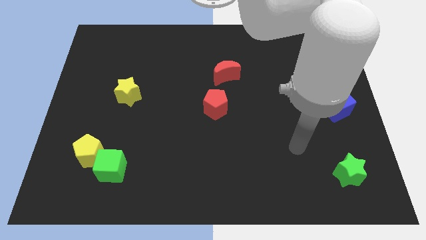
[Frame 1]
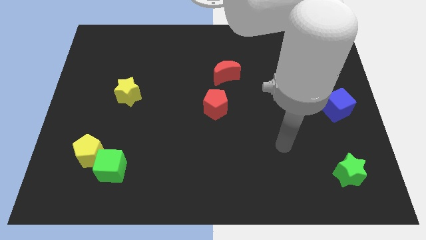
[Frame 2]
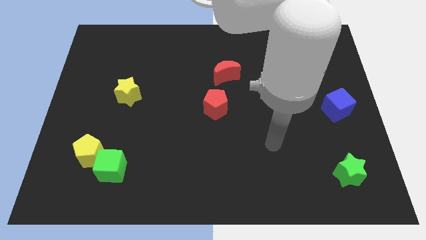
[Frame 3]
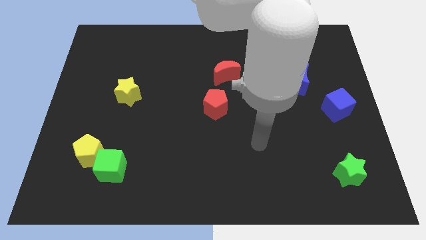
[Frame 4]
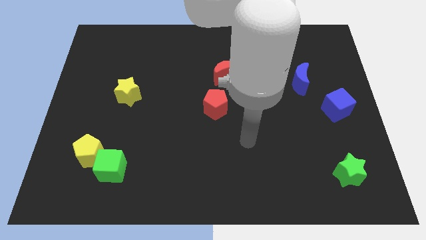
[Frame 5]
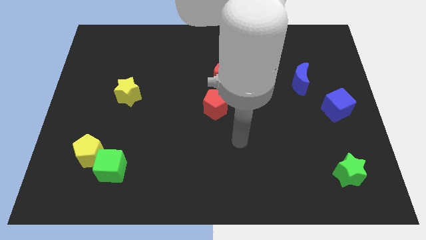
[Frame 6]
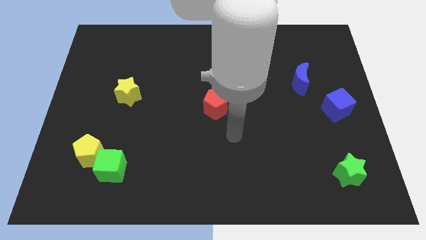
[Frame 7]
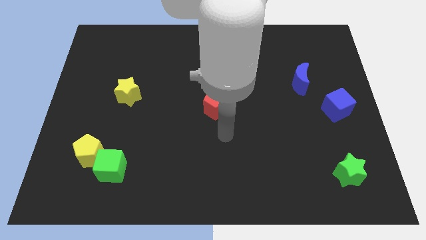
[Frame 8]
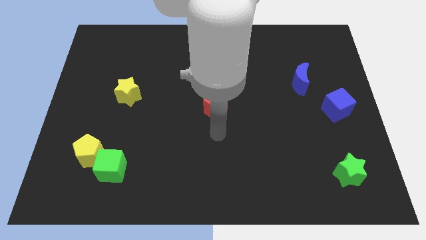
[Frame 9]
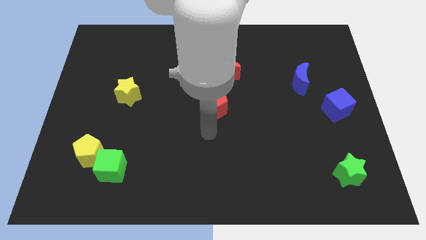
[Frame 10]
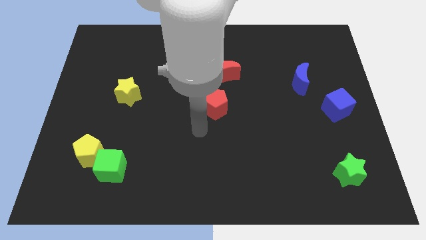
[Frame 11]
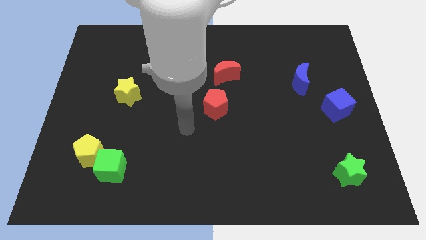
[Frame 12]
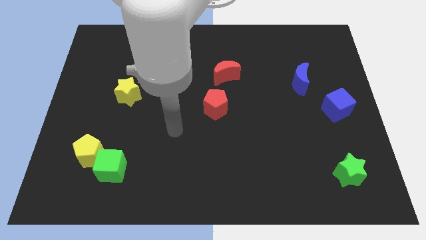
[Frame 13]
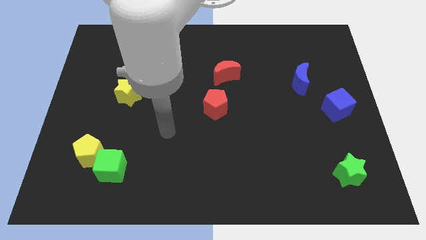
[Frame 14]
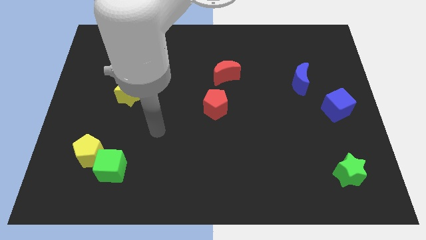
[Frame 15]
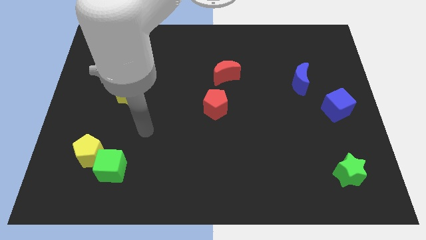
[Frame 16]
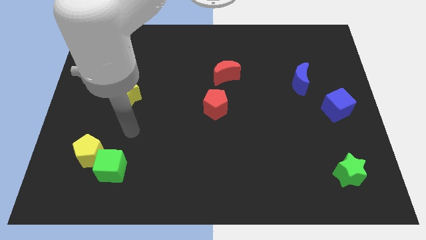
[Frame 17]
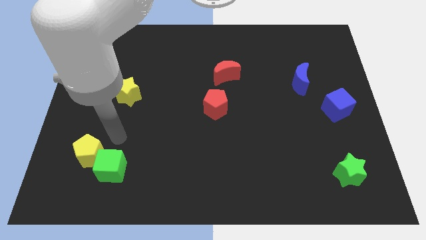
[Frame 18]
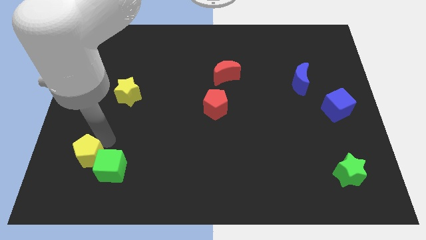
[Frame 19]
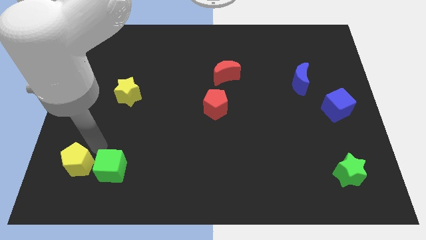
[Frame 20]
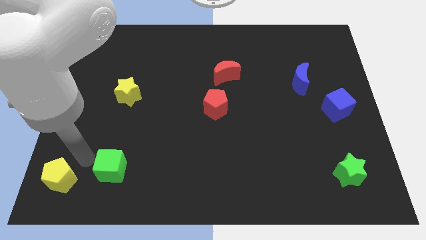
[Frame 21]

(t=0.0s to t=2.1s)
separate the green cube from the yellow pentagon

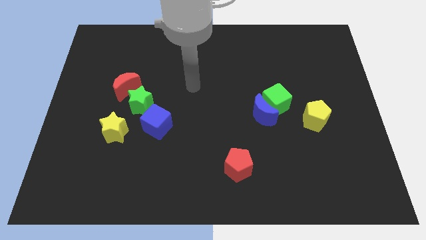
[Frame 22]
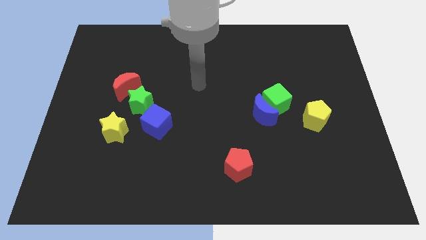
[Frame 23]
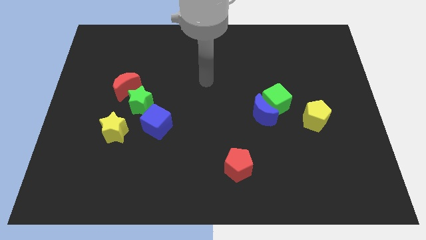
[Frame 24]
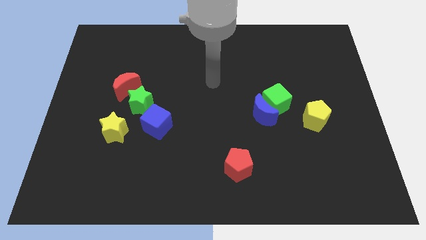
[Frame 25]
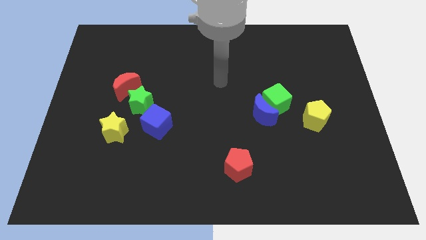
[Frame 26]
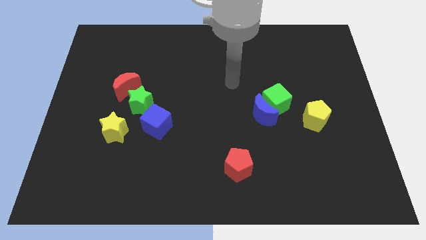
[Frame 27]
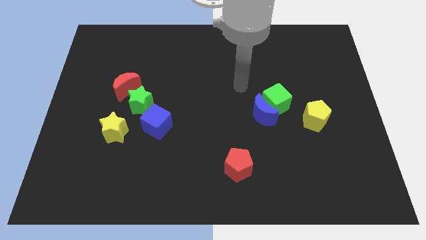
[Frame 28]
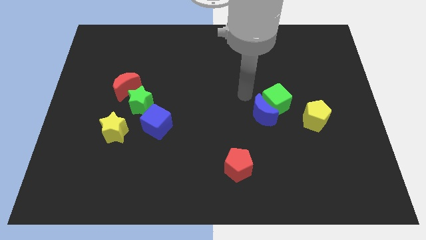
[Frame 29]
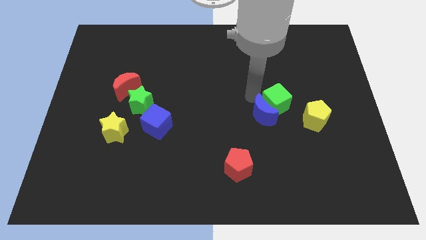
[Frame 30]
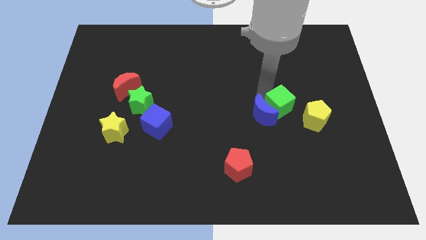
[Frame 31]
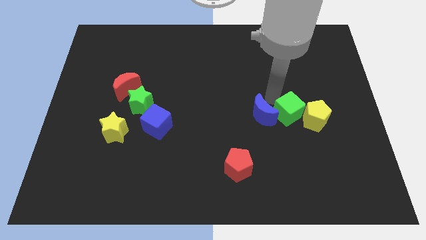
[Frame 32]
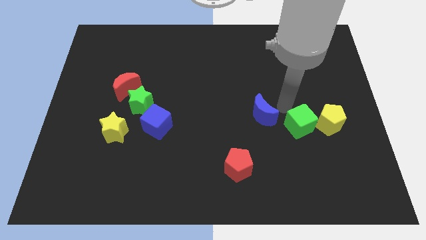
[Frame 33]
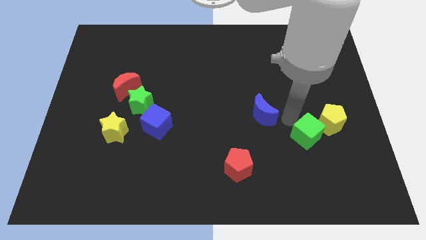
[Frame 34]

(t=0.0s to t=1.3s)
separate the blue moon from the green cube

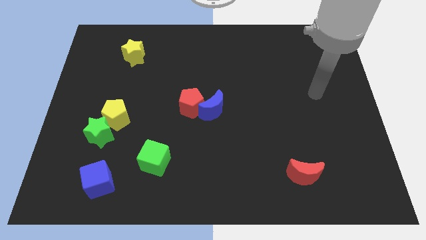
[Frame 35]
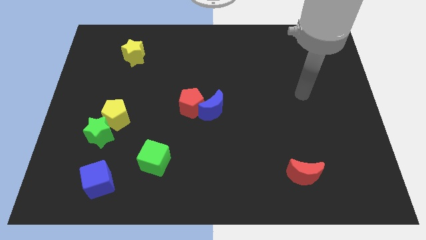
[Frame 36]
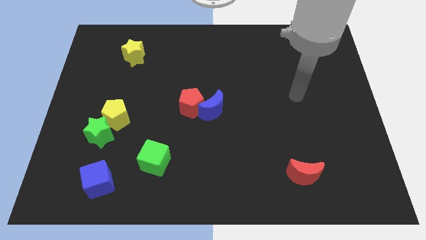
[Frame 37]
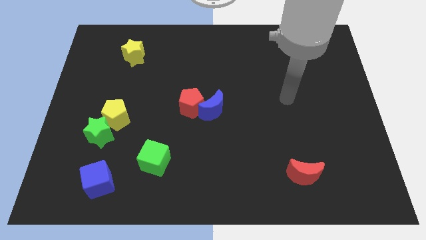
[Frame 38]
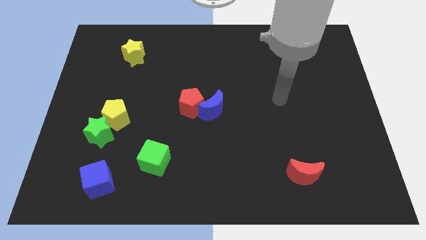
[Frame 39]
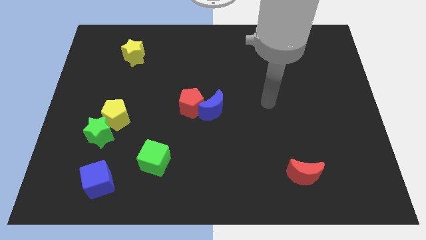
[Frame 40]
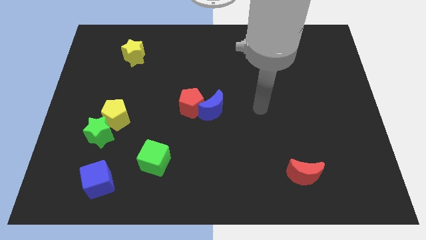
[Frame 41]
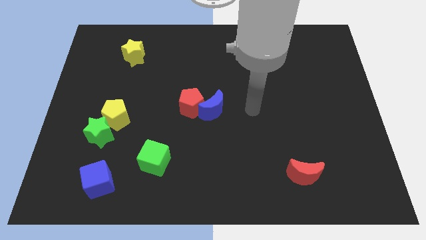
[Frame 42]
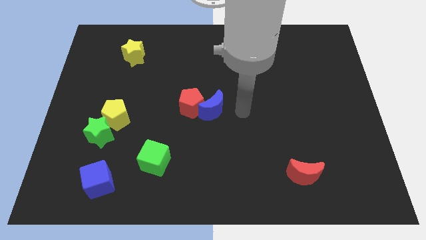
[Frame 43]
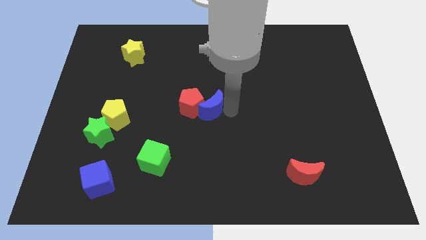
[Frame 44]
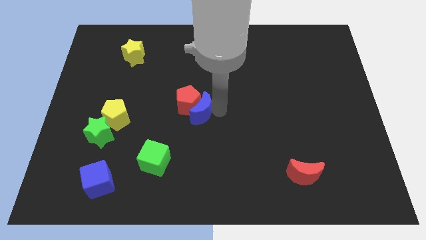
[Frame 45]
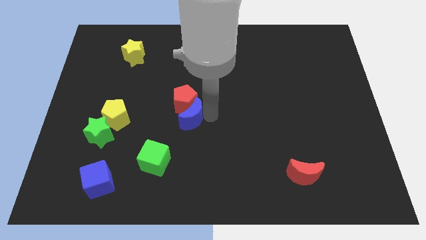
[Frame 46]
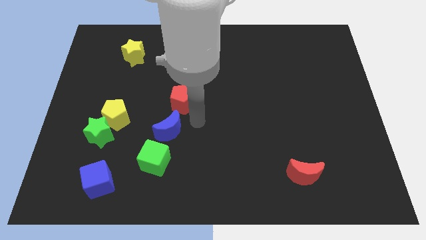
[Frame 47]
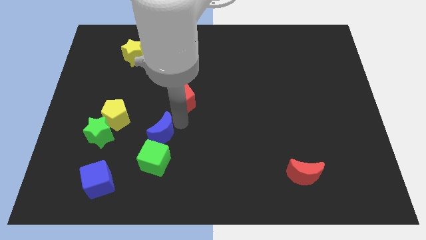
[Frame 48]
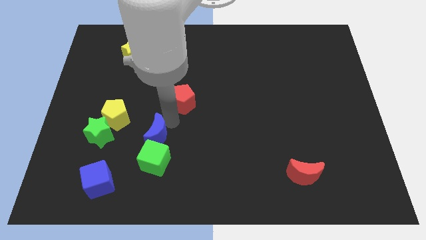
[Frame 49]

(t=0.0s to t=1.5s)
separate the red pentagon from the blue moon

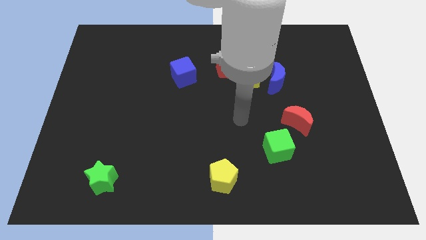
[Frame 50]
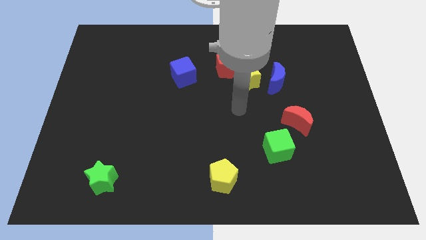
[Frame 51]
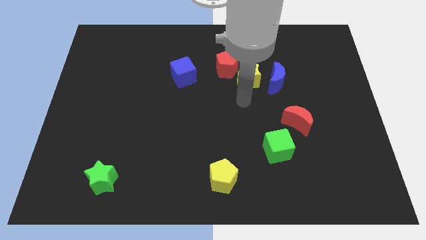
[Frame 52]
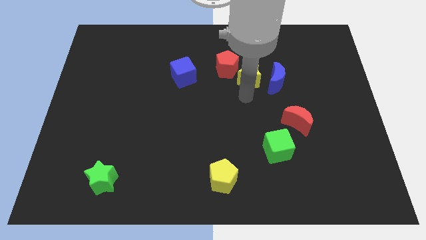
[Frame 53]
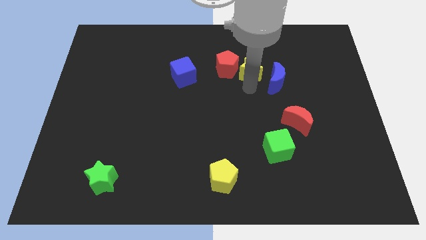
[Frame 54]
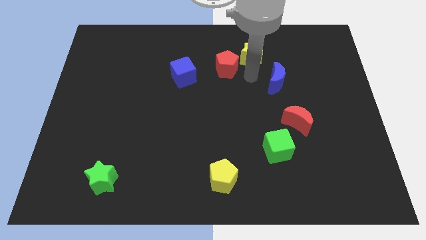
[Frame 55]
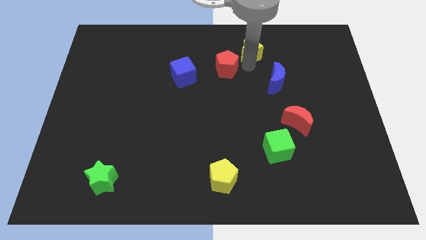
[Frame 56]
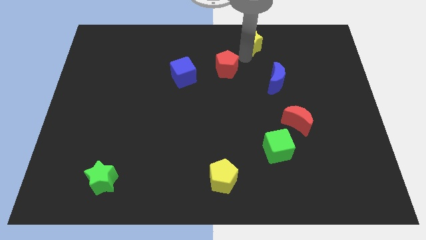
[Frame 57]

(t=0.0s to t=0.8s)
pull the red pentagon apart from the yellow star

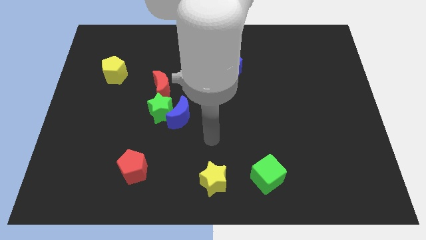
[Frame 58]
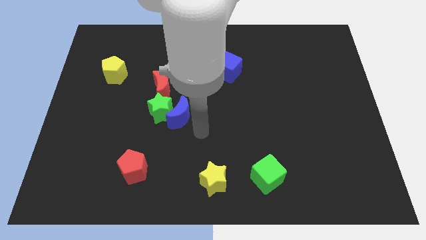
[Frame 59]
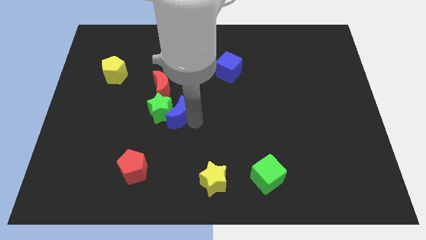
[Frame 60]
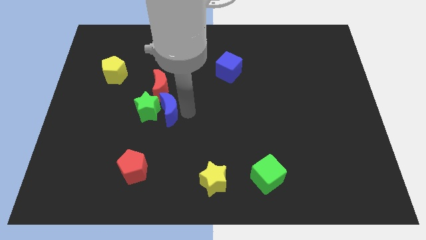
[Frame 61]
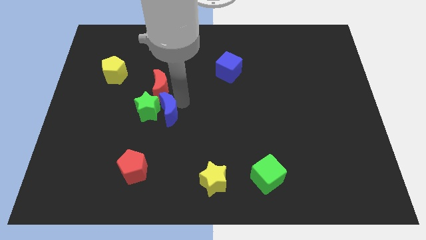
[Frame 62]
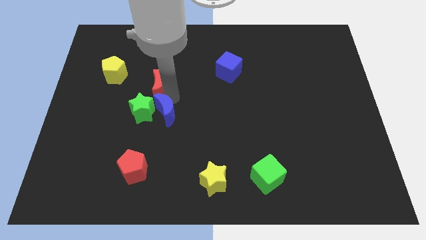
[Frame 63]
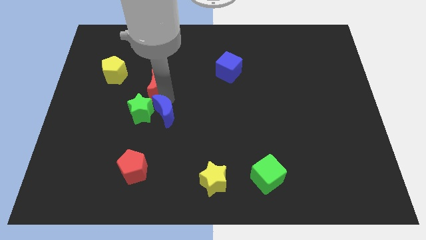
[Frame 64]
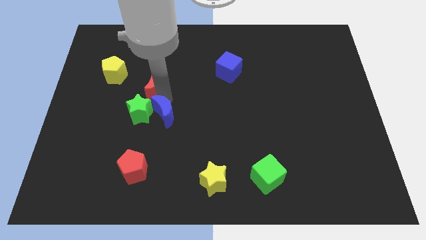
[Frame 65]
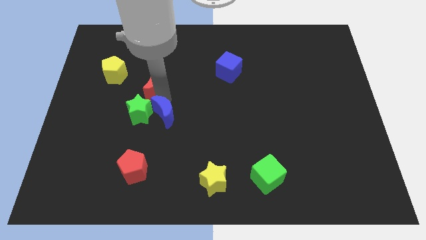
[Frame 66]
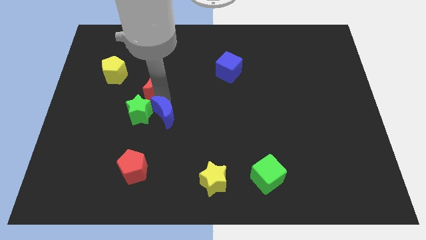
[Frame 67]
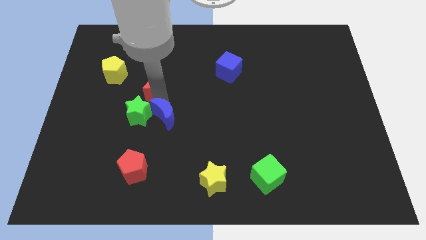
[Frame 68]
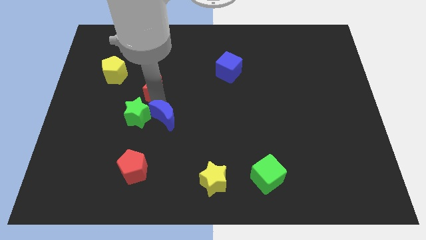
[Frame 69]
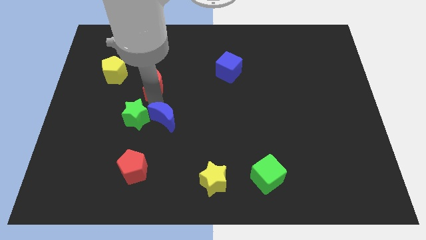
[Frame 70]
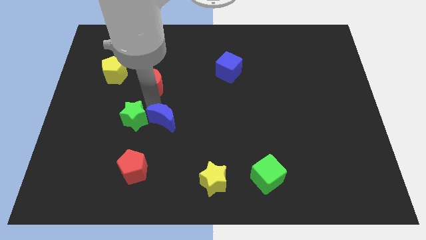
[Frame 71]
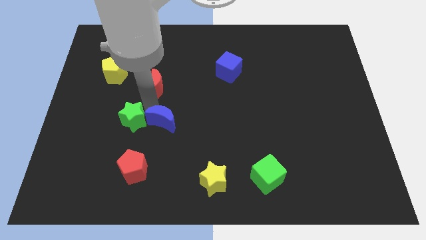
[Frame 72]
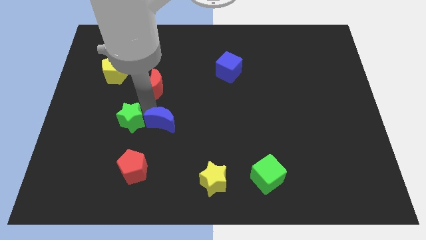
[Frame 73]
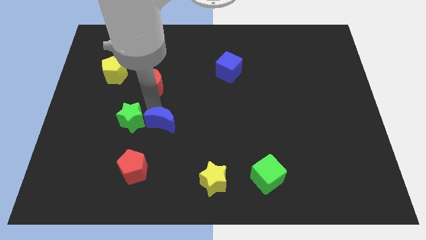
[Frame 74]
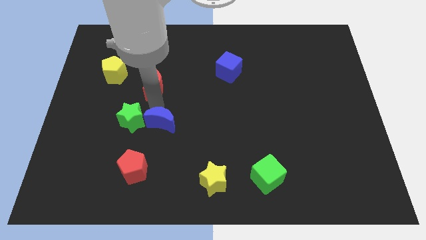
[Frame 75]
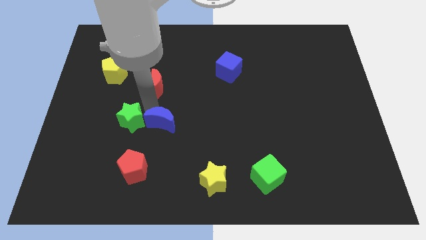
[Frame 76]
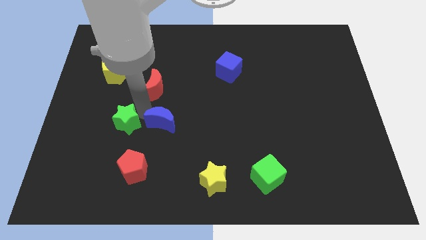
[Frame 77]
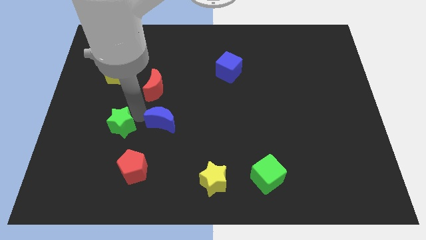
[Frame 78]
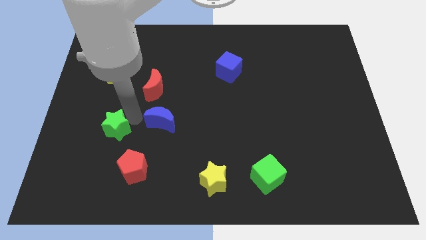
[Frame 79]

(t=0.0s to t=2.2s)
pull the green star apart from the blue moon and red moon

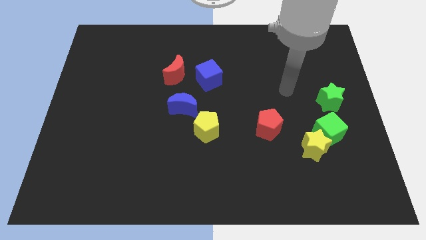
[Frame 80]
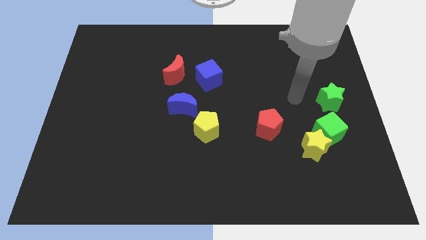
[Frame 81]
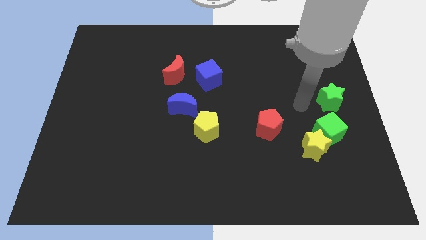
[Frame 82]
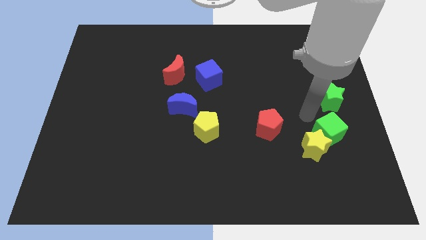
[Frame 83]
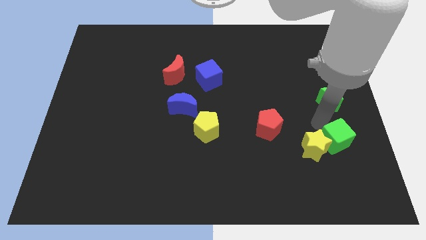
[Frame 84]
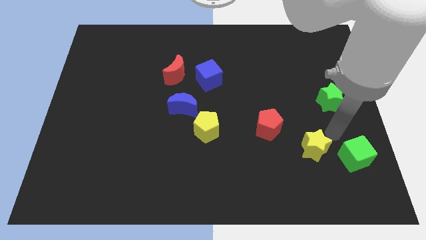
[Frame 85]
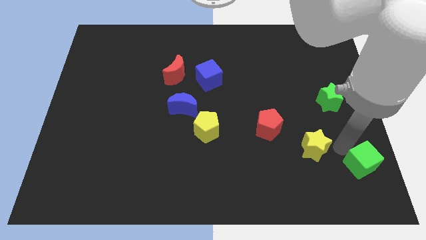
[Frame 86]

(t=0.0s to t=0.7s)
separate the yellow star from the green cube

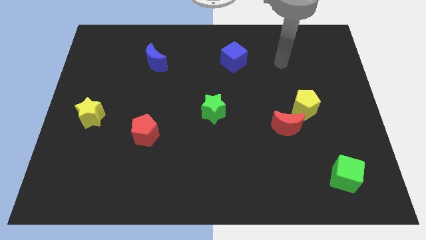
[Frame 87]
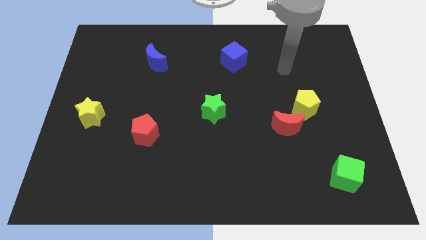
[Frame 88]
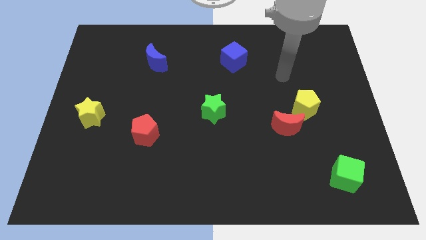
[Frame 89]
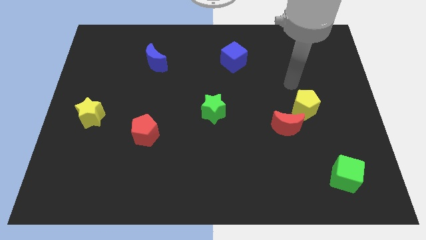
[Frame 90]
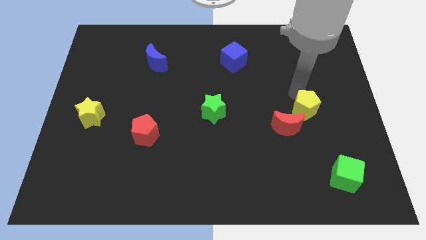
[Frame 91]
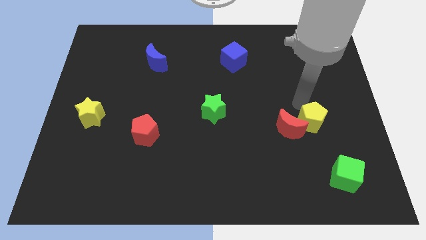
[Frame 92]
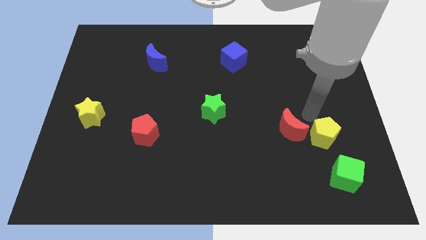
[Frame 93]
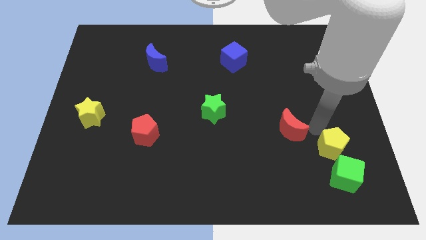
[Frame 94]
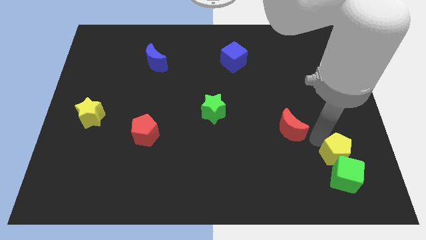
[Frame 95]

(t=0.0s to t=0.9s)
move the red moon away from the yellow pentagon
